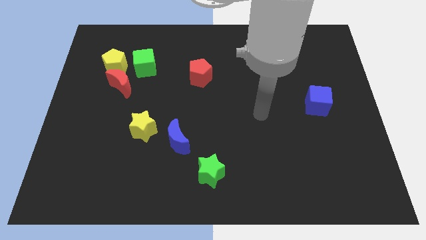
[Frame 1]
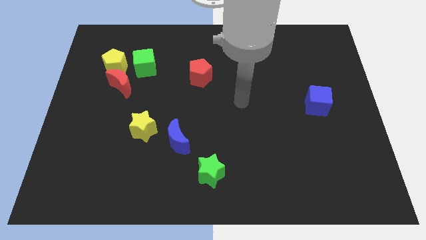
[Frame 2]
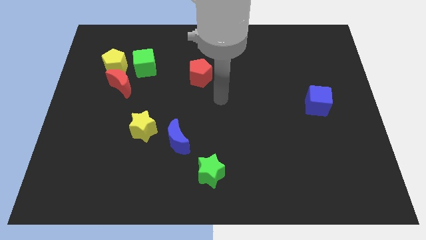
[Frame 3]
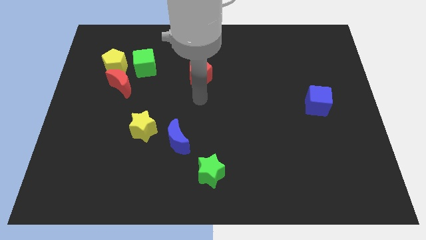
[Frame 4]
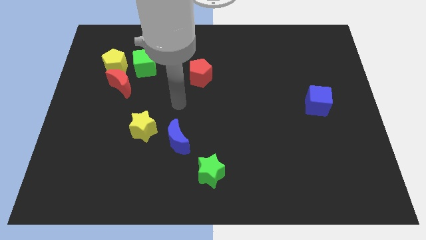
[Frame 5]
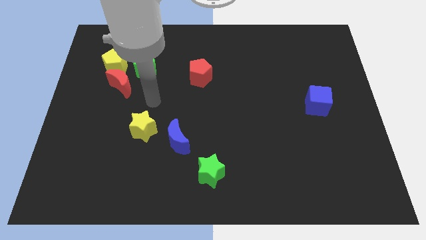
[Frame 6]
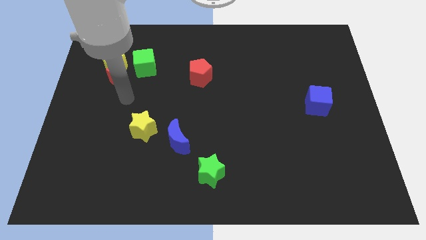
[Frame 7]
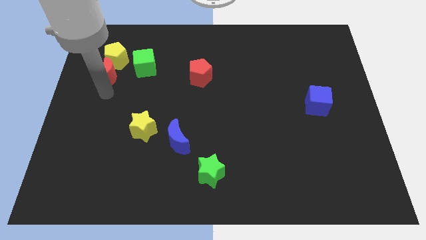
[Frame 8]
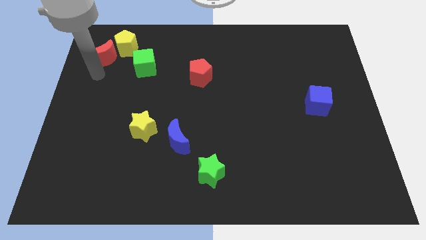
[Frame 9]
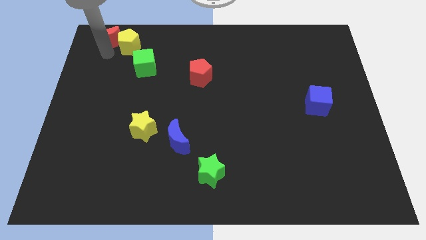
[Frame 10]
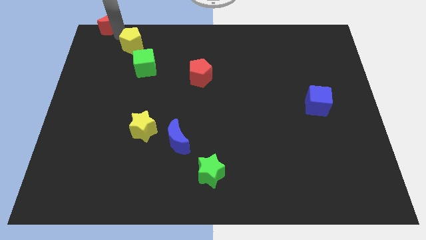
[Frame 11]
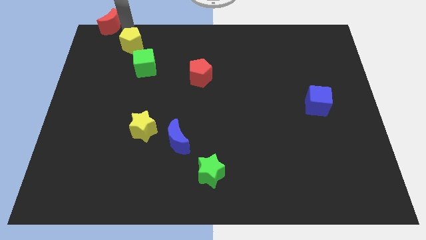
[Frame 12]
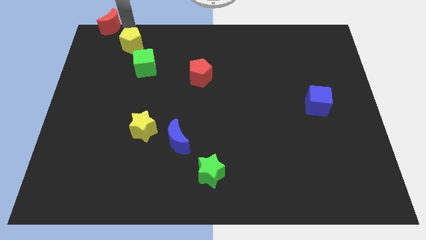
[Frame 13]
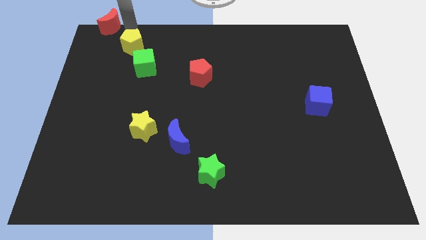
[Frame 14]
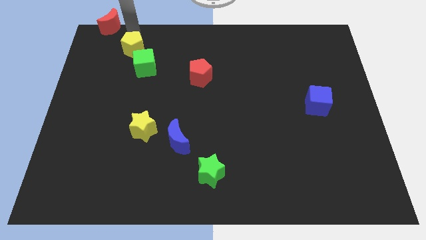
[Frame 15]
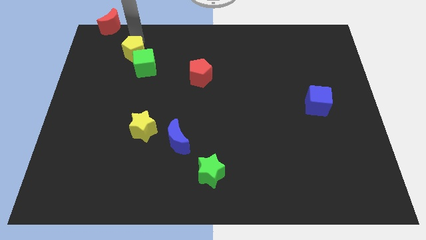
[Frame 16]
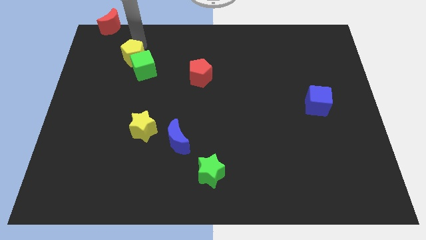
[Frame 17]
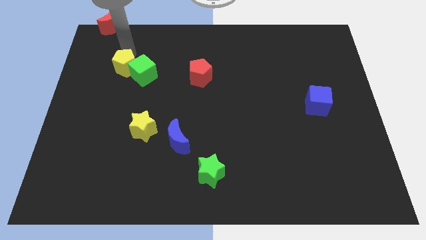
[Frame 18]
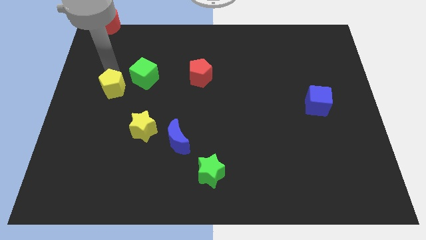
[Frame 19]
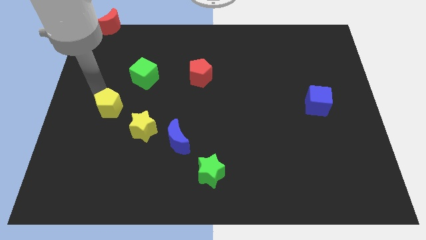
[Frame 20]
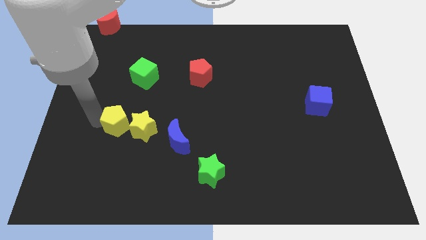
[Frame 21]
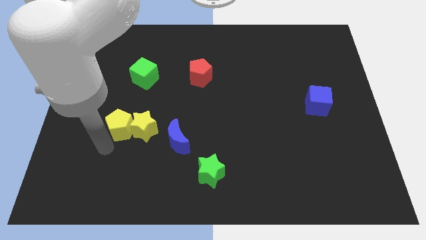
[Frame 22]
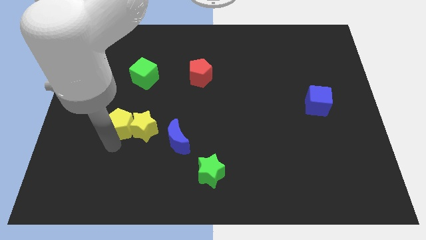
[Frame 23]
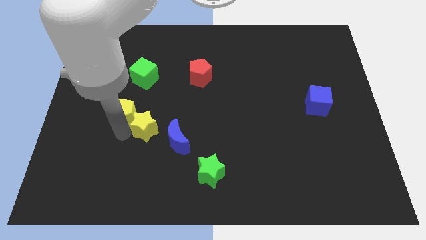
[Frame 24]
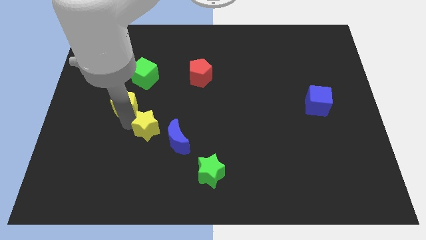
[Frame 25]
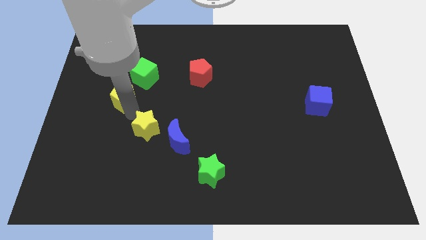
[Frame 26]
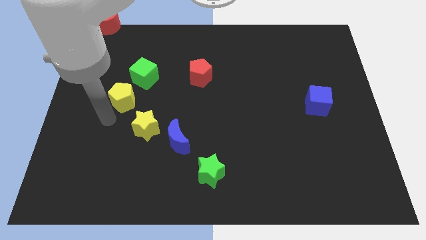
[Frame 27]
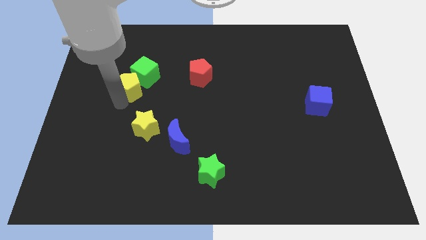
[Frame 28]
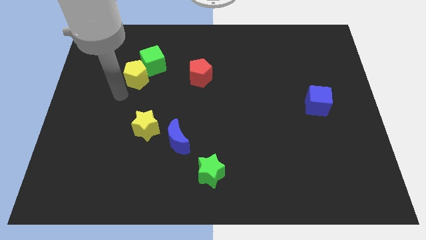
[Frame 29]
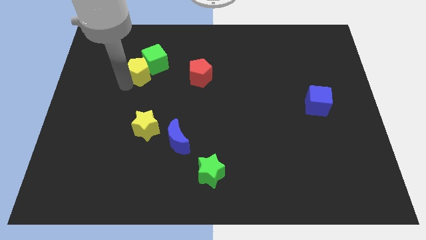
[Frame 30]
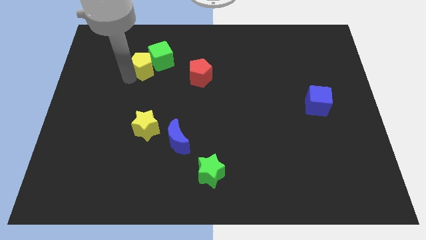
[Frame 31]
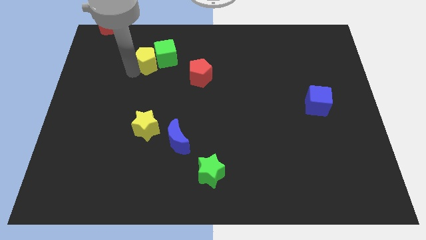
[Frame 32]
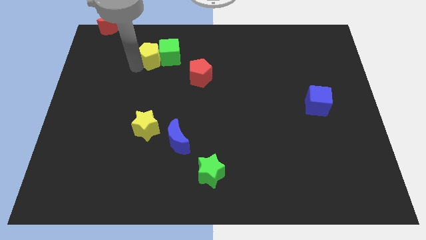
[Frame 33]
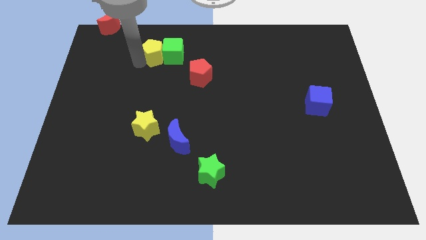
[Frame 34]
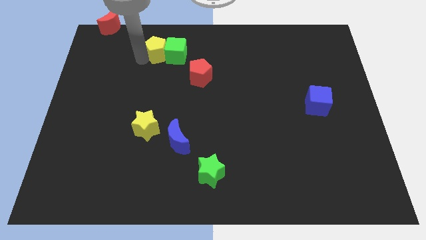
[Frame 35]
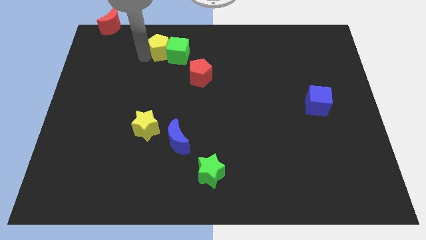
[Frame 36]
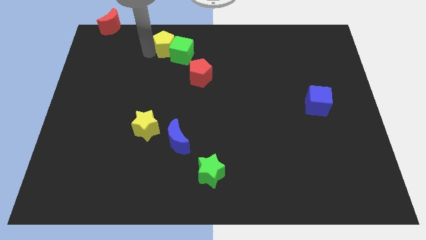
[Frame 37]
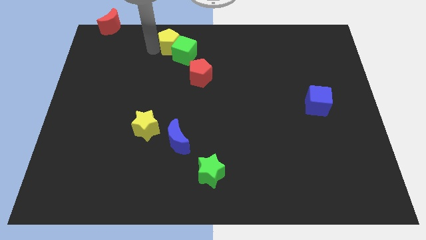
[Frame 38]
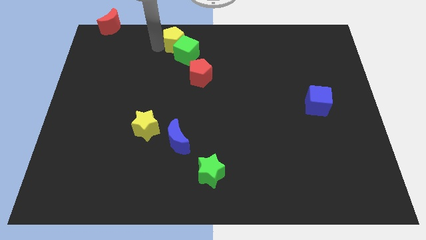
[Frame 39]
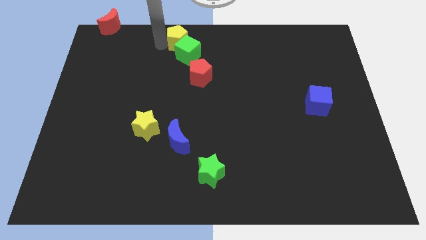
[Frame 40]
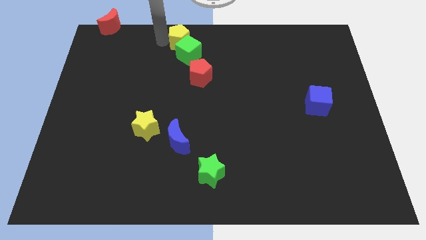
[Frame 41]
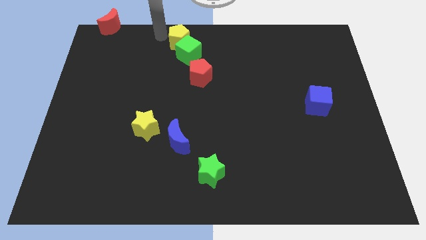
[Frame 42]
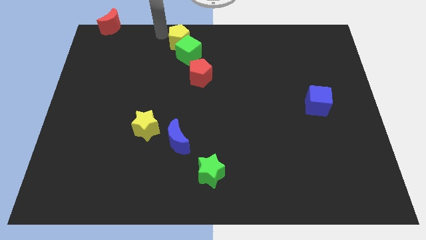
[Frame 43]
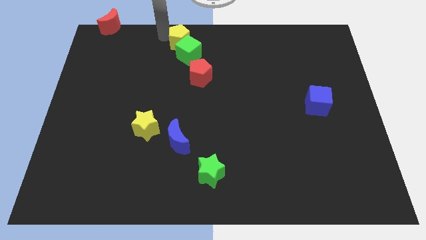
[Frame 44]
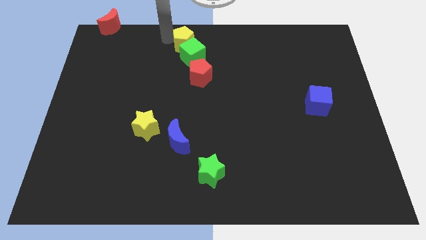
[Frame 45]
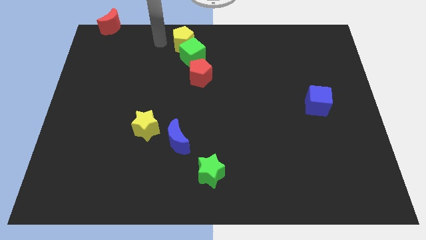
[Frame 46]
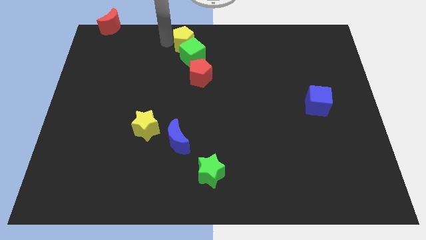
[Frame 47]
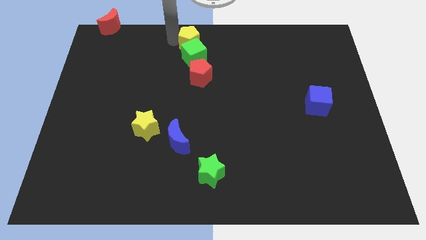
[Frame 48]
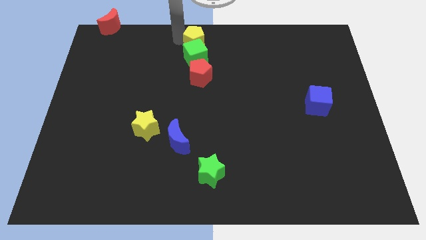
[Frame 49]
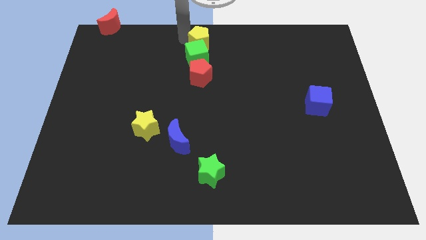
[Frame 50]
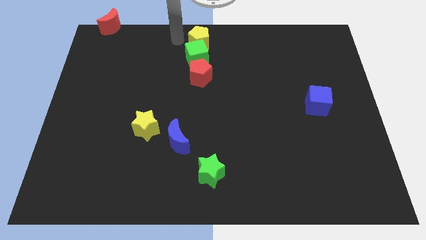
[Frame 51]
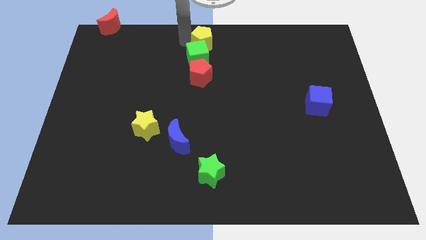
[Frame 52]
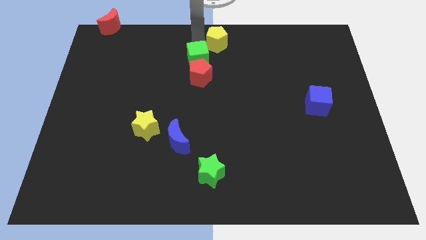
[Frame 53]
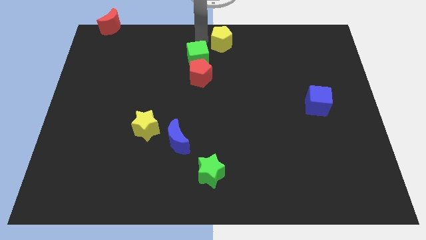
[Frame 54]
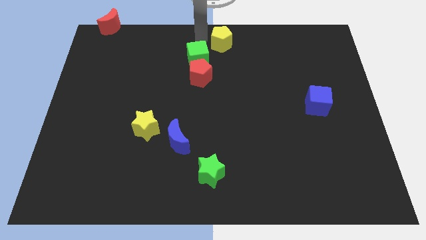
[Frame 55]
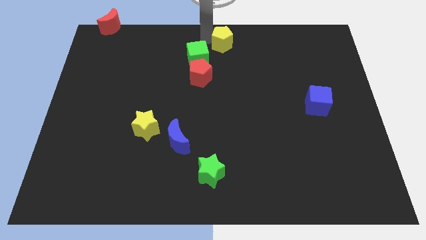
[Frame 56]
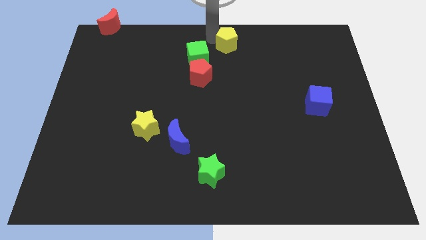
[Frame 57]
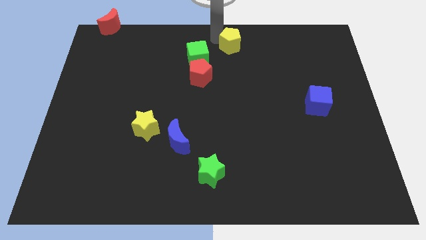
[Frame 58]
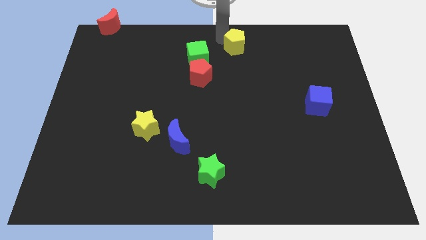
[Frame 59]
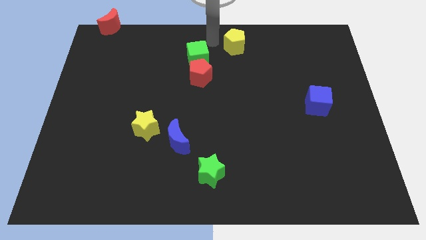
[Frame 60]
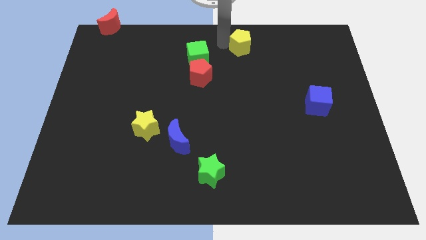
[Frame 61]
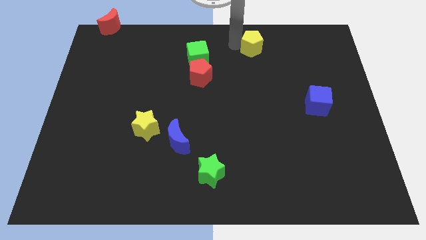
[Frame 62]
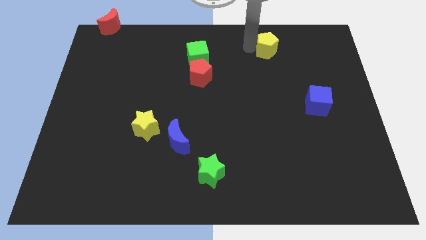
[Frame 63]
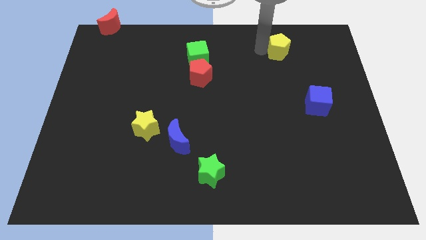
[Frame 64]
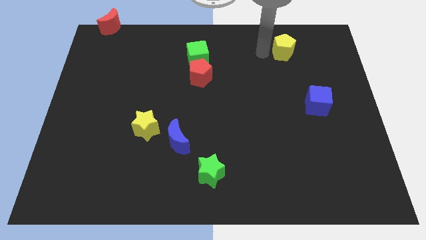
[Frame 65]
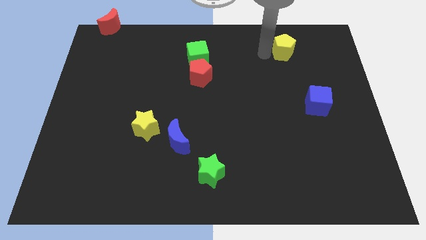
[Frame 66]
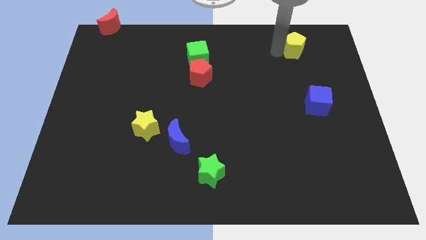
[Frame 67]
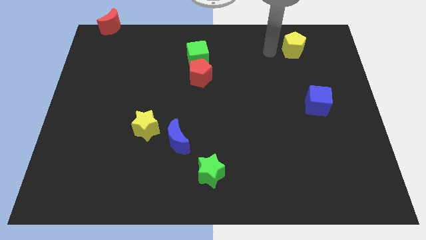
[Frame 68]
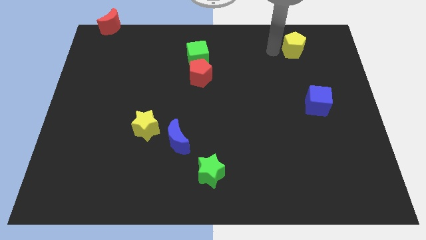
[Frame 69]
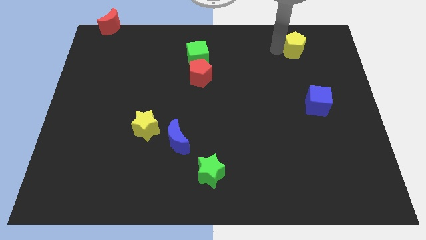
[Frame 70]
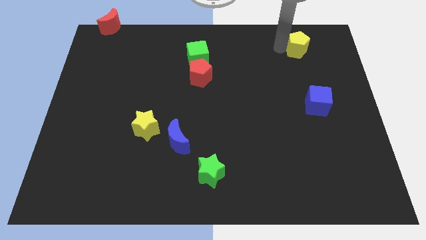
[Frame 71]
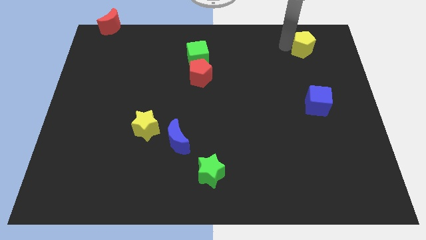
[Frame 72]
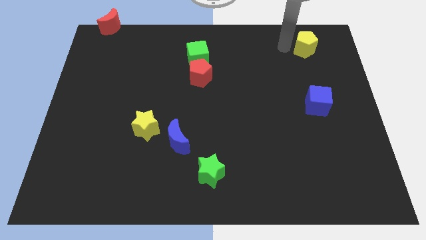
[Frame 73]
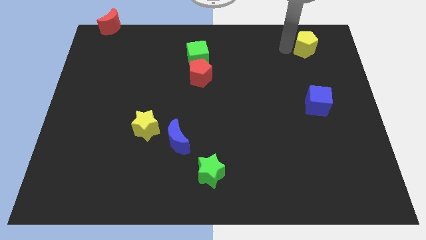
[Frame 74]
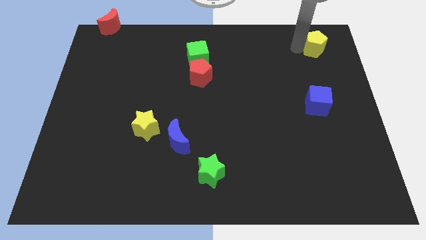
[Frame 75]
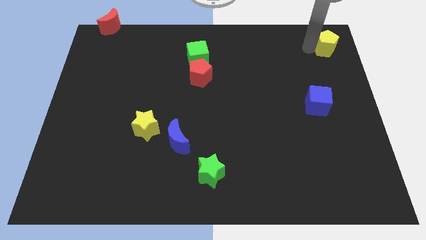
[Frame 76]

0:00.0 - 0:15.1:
put the yellow pentagon to the top right
